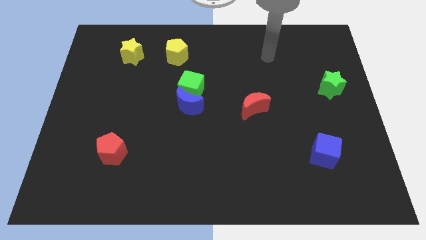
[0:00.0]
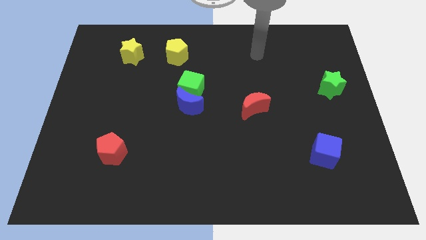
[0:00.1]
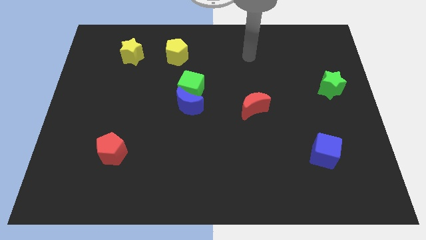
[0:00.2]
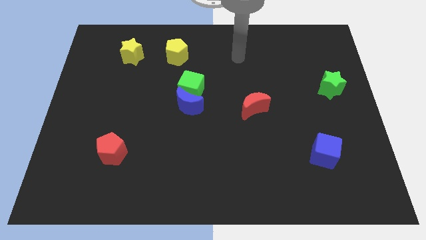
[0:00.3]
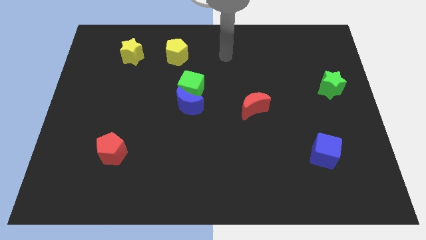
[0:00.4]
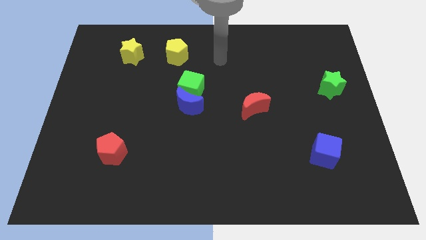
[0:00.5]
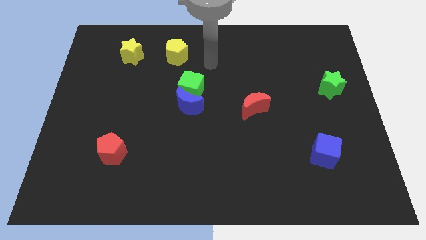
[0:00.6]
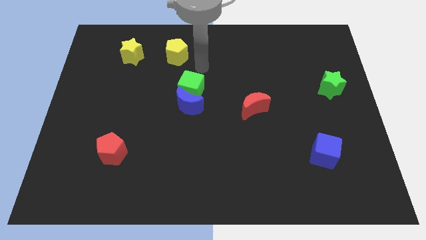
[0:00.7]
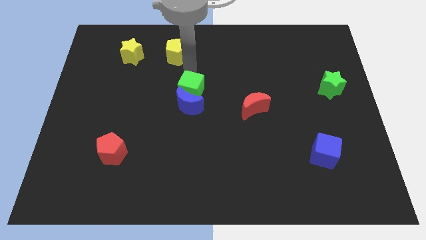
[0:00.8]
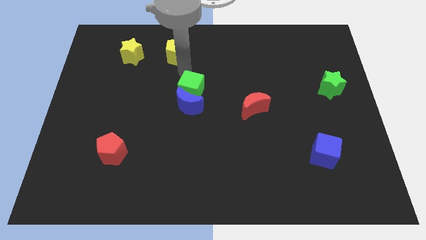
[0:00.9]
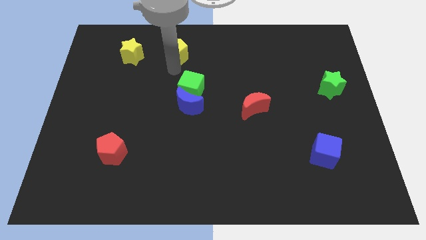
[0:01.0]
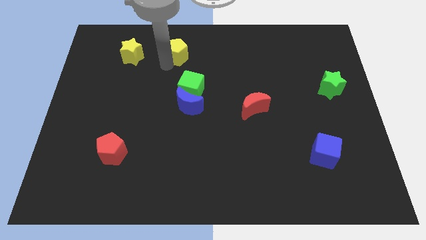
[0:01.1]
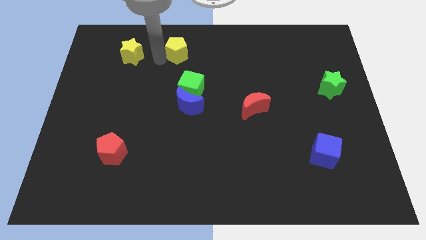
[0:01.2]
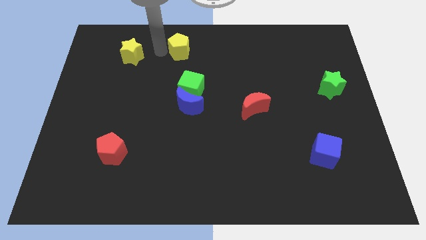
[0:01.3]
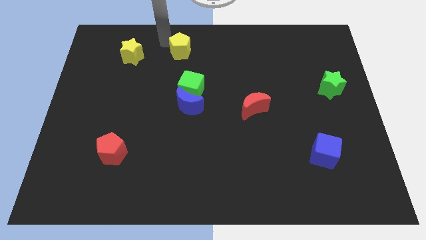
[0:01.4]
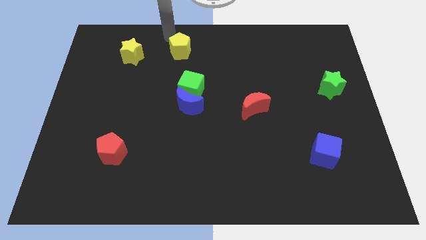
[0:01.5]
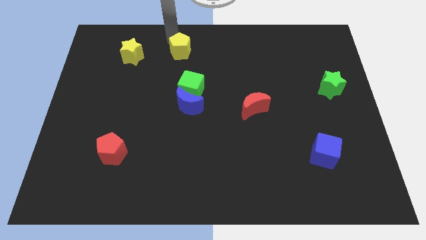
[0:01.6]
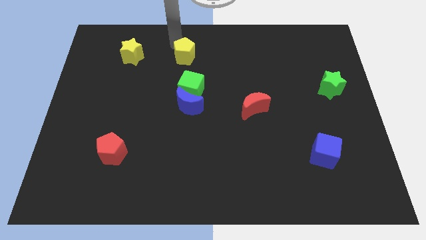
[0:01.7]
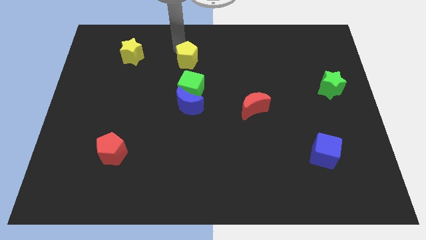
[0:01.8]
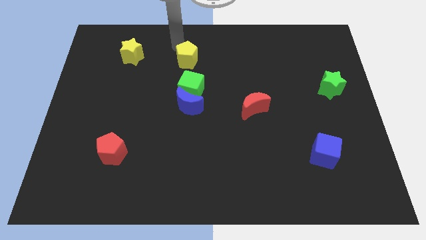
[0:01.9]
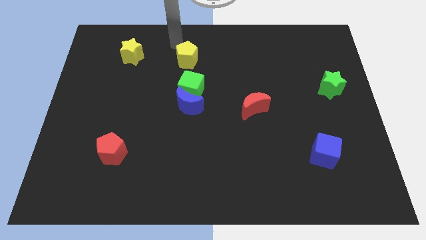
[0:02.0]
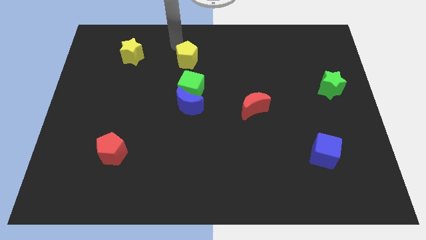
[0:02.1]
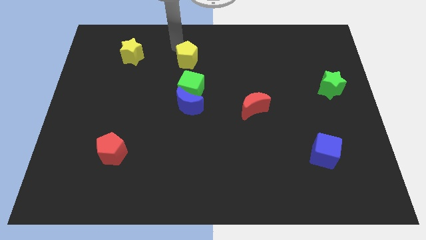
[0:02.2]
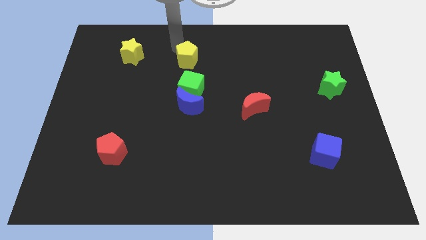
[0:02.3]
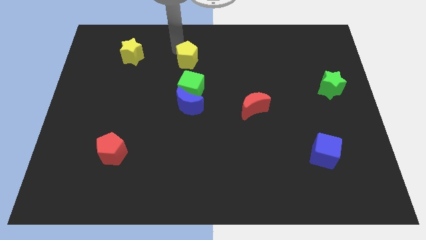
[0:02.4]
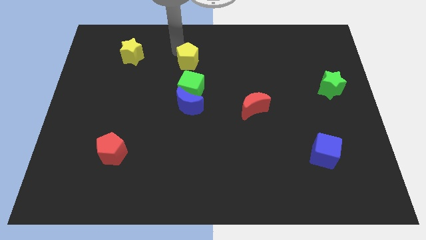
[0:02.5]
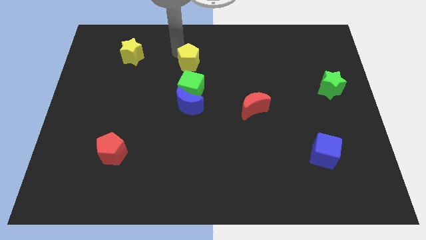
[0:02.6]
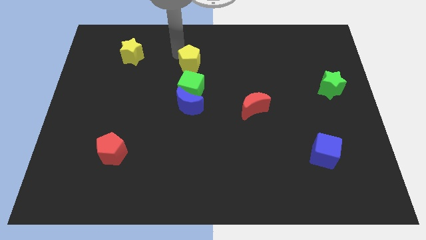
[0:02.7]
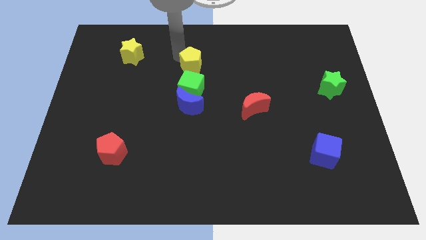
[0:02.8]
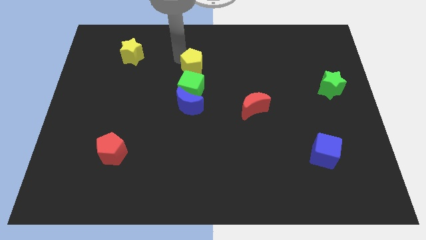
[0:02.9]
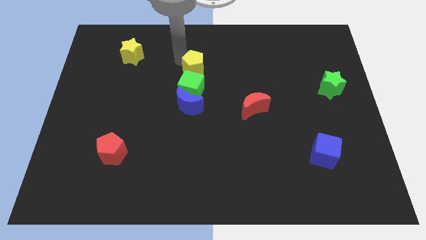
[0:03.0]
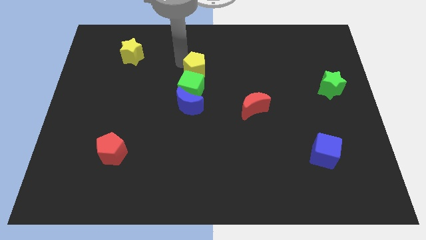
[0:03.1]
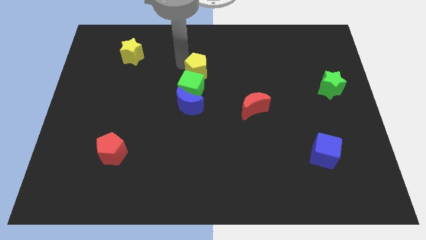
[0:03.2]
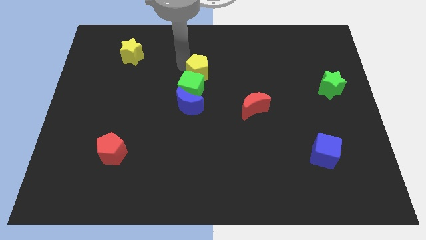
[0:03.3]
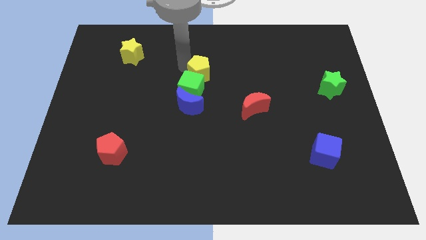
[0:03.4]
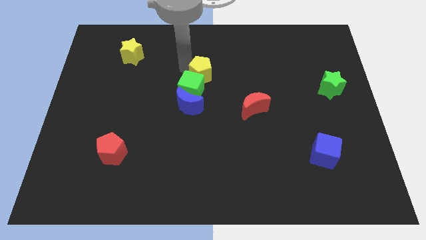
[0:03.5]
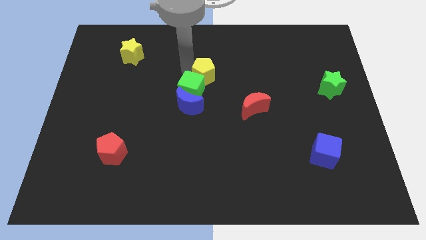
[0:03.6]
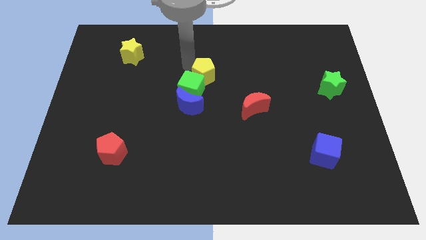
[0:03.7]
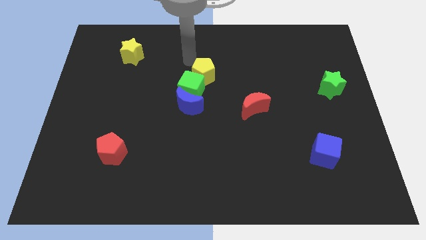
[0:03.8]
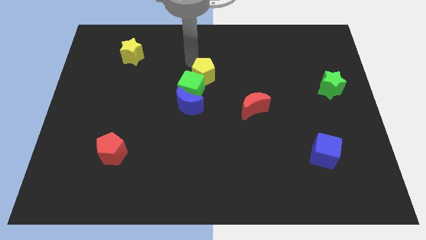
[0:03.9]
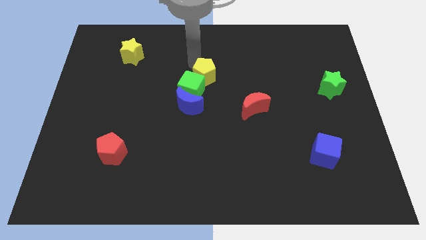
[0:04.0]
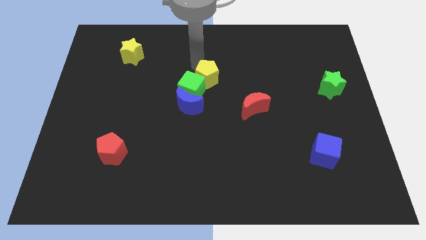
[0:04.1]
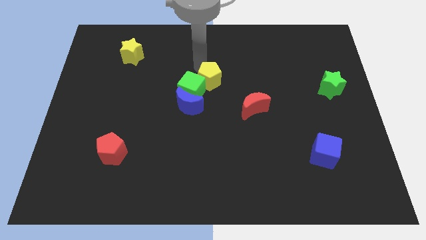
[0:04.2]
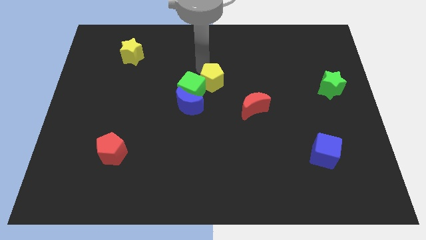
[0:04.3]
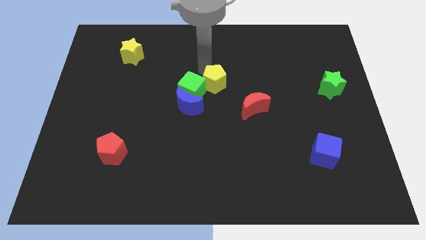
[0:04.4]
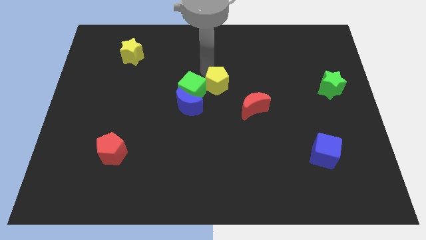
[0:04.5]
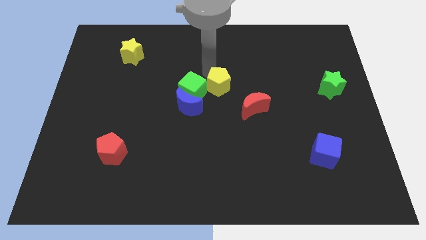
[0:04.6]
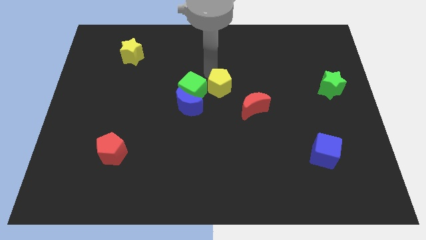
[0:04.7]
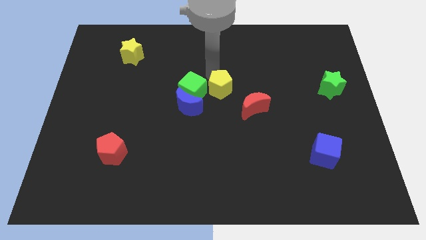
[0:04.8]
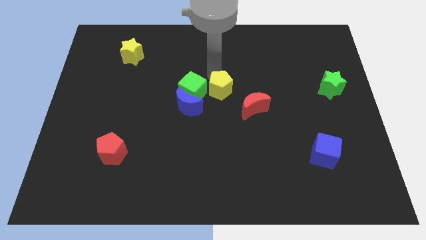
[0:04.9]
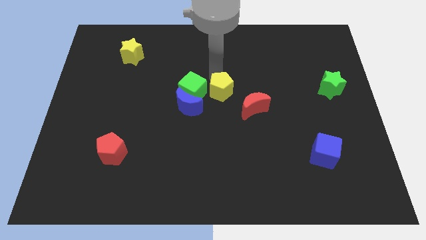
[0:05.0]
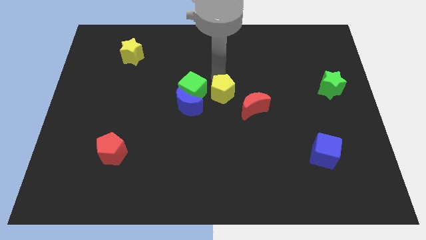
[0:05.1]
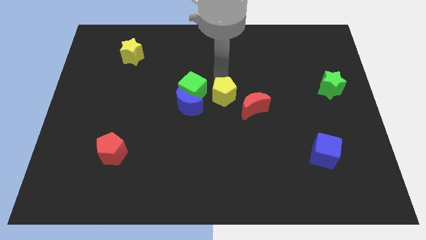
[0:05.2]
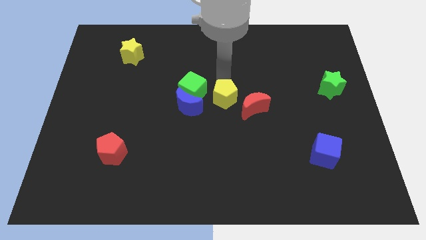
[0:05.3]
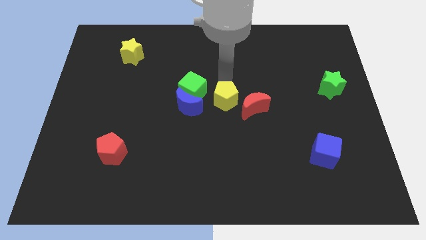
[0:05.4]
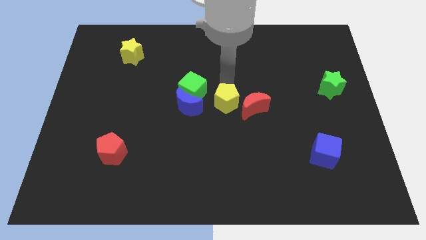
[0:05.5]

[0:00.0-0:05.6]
slide the yellow pentagon down and to the right

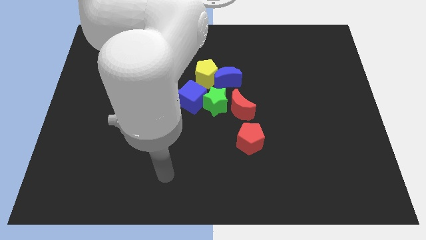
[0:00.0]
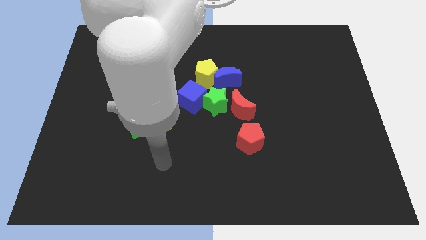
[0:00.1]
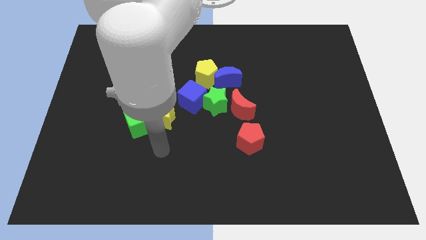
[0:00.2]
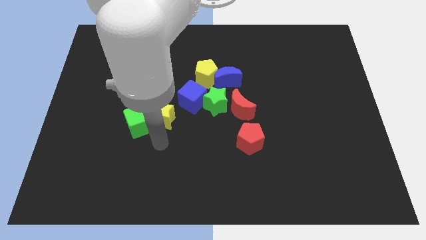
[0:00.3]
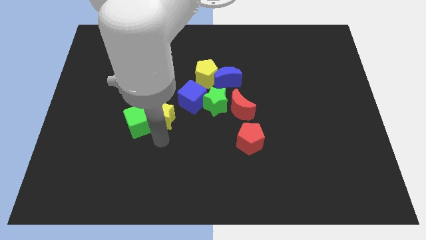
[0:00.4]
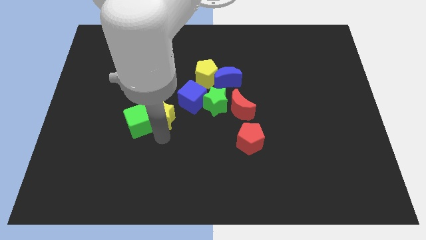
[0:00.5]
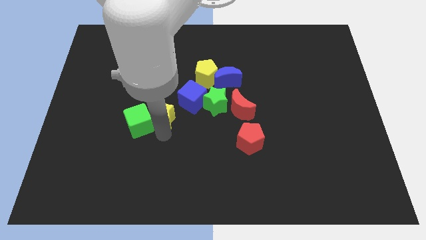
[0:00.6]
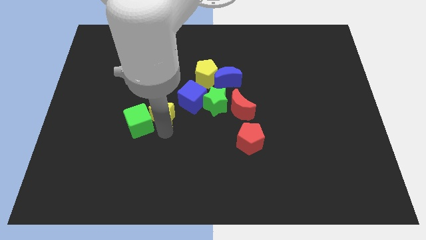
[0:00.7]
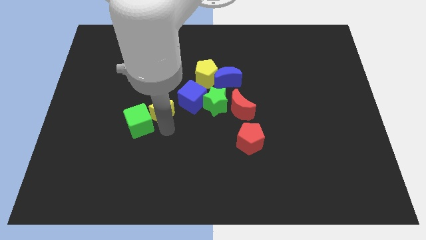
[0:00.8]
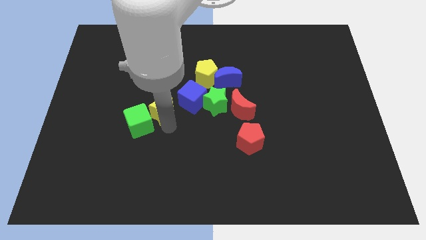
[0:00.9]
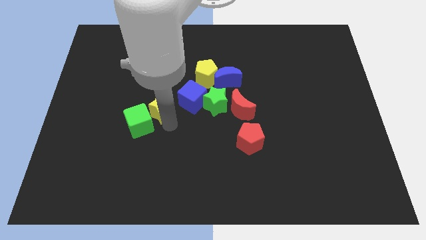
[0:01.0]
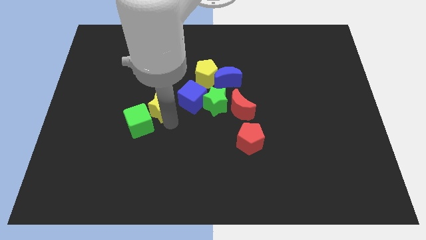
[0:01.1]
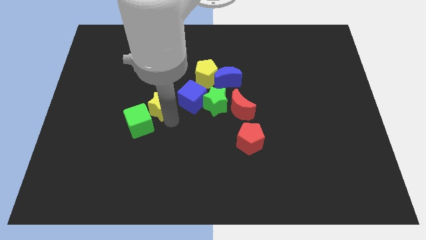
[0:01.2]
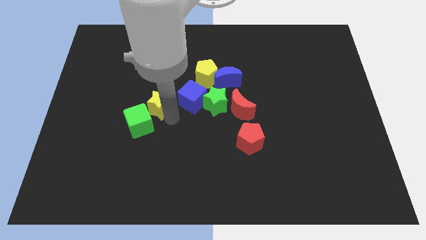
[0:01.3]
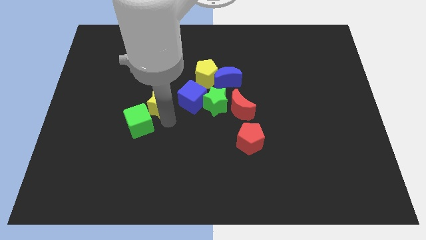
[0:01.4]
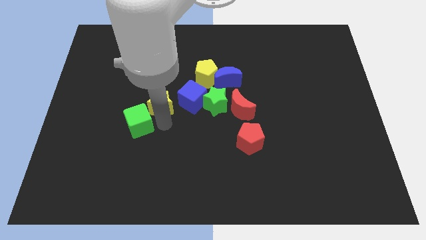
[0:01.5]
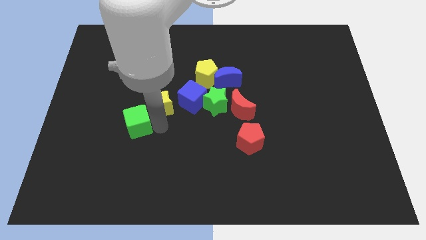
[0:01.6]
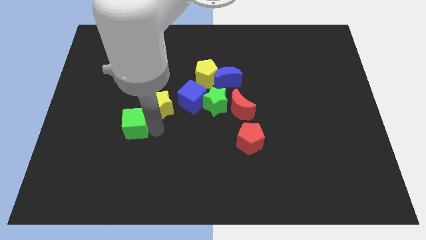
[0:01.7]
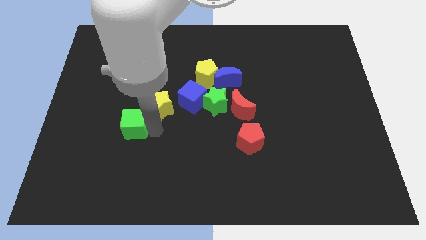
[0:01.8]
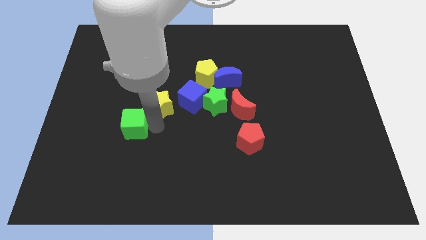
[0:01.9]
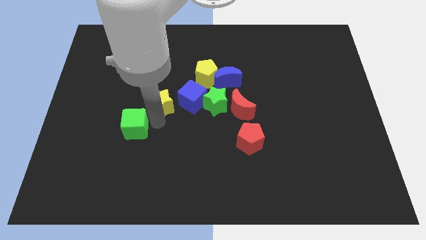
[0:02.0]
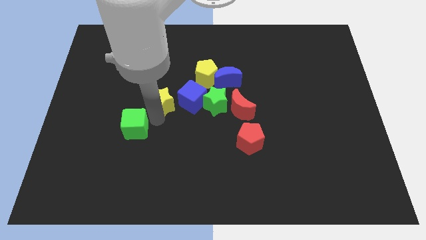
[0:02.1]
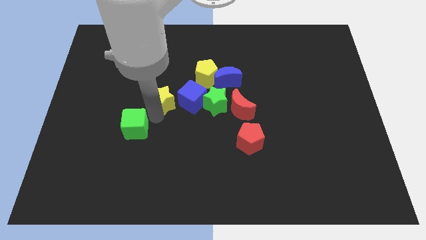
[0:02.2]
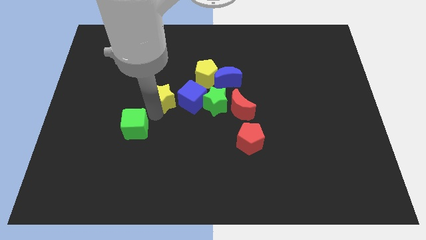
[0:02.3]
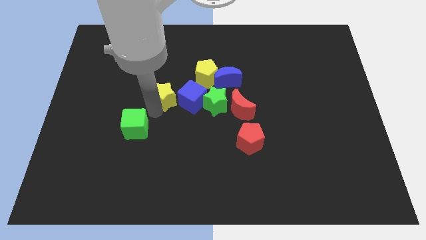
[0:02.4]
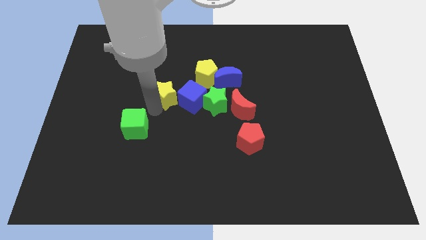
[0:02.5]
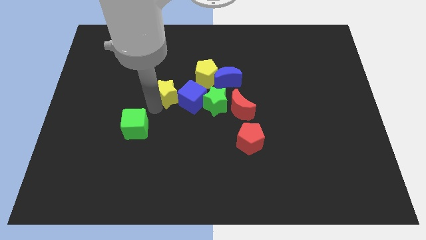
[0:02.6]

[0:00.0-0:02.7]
push the yellow star a little up
